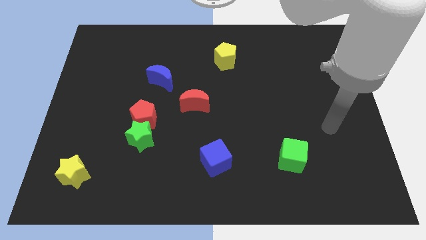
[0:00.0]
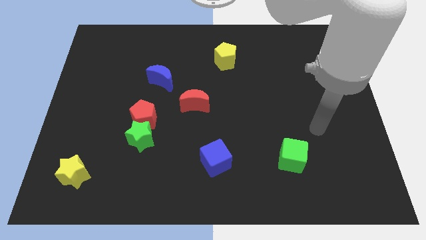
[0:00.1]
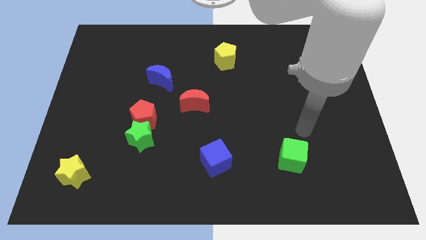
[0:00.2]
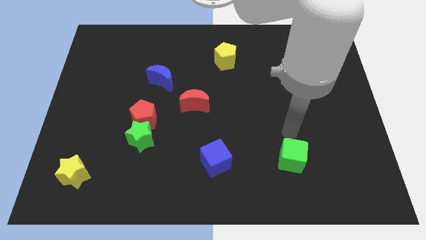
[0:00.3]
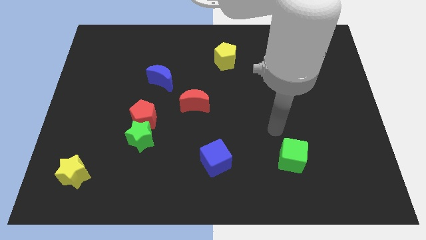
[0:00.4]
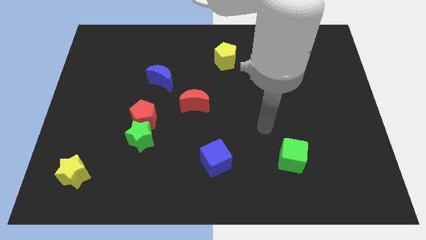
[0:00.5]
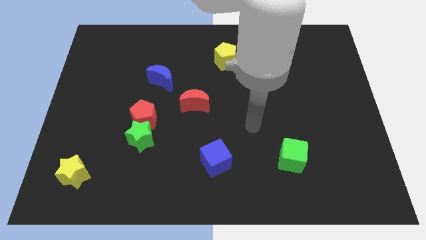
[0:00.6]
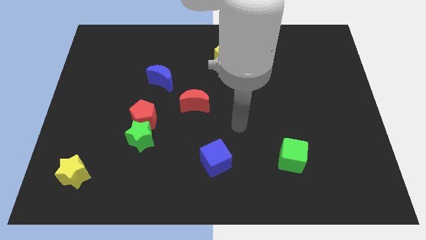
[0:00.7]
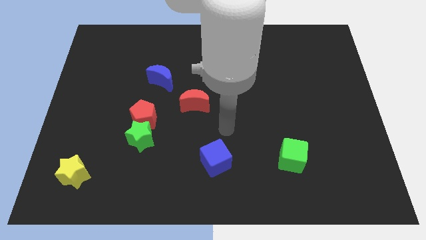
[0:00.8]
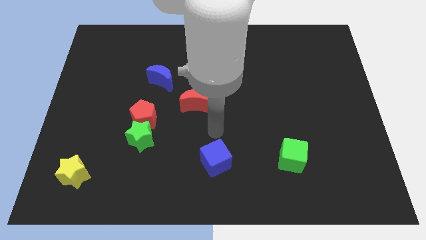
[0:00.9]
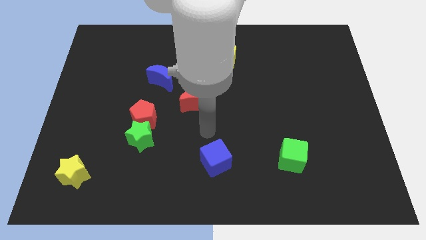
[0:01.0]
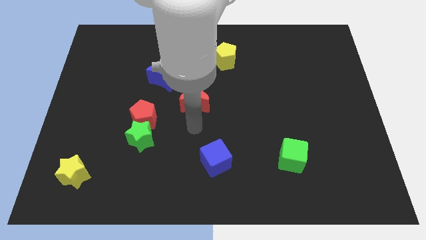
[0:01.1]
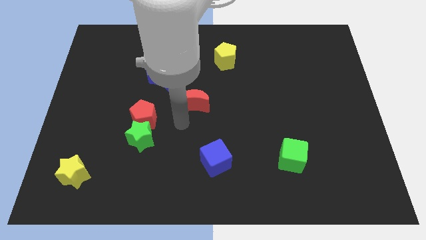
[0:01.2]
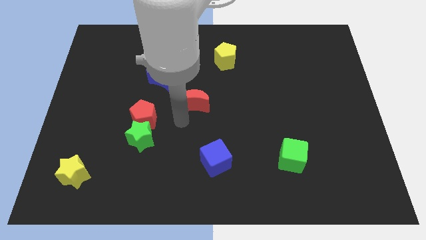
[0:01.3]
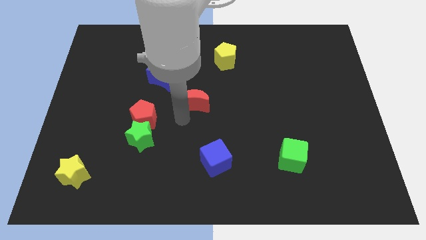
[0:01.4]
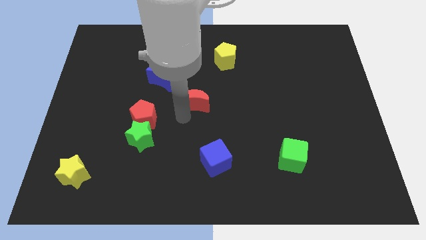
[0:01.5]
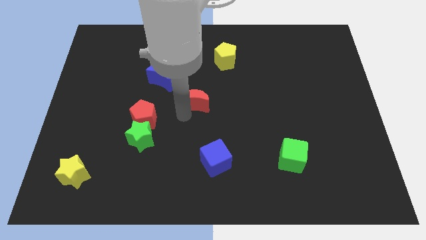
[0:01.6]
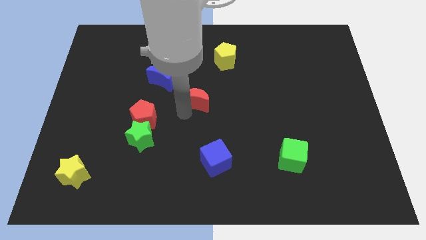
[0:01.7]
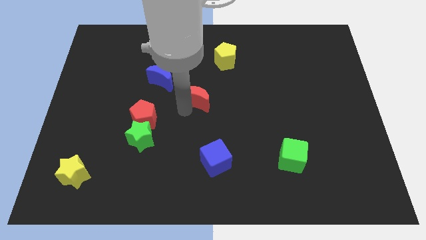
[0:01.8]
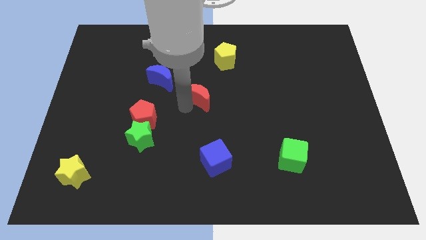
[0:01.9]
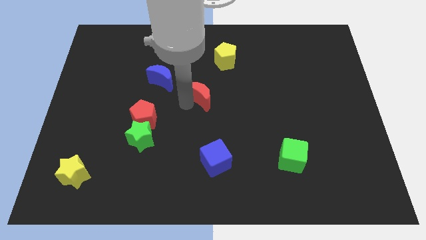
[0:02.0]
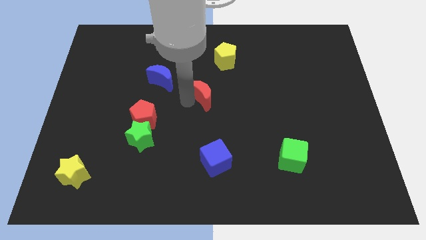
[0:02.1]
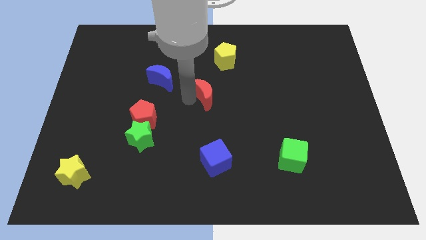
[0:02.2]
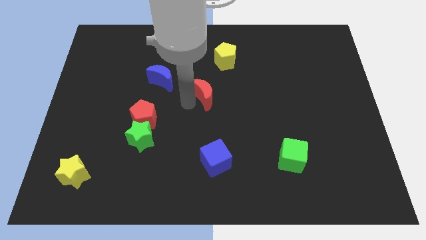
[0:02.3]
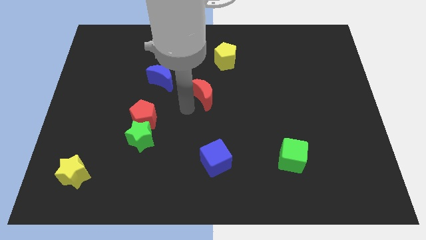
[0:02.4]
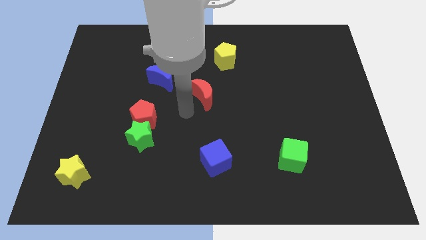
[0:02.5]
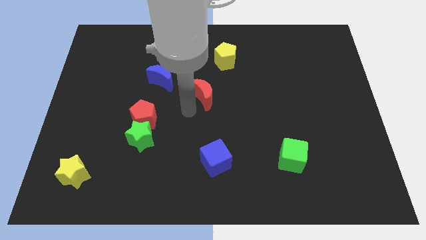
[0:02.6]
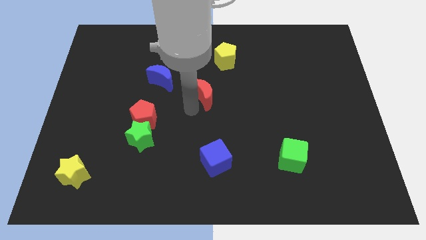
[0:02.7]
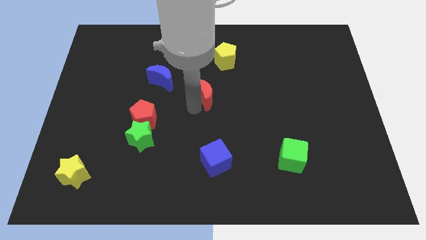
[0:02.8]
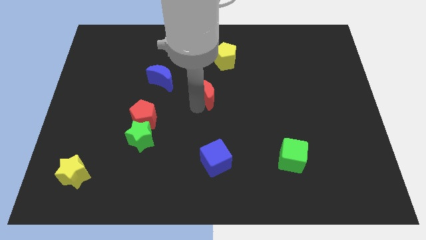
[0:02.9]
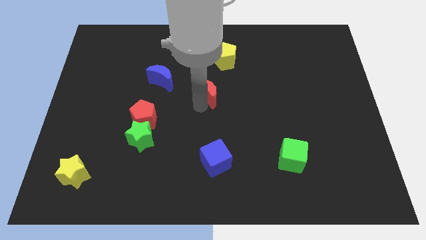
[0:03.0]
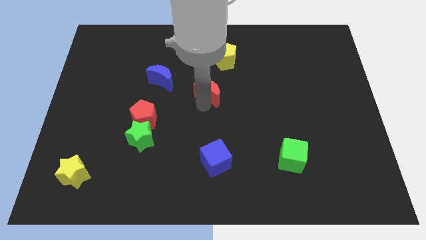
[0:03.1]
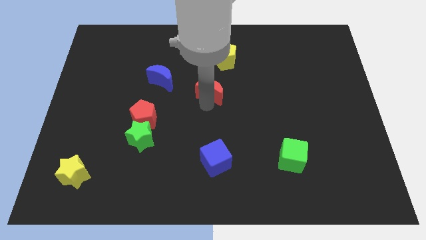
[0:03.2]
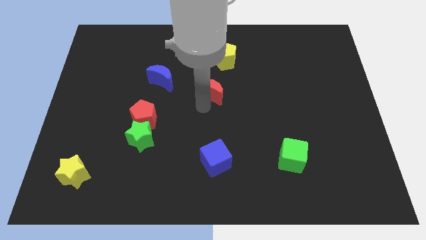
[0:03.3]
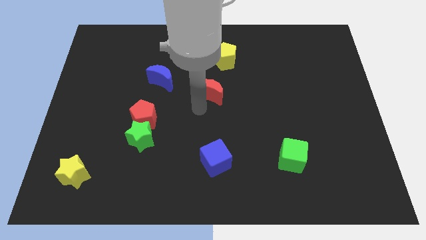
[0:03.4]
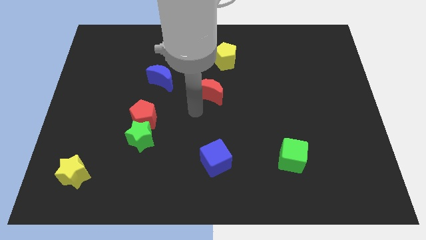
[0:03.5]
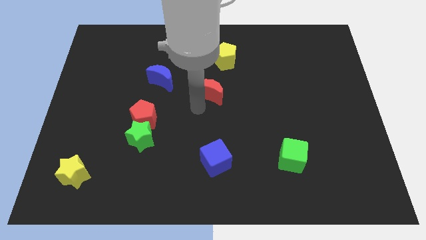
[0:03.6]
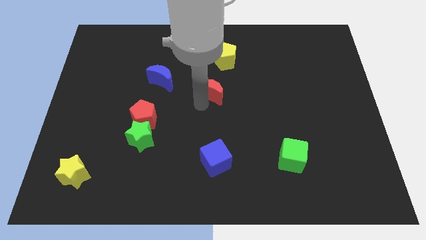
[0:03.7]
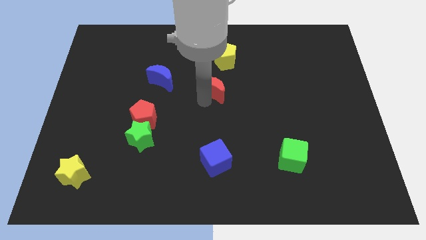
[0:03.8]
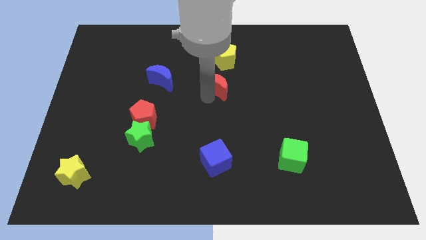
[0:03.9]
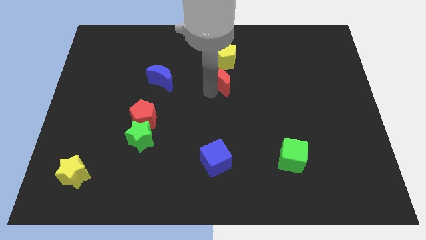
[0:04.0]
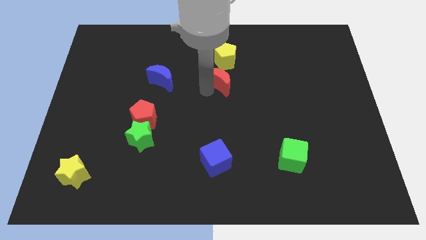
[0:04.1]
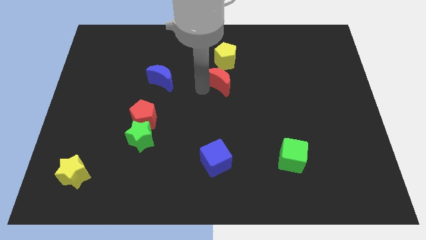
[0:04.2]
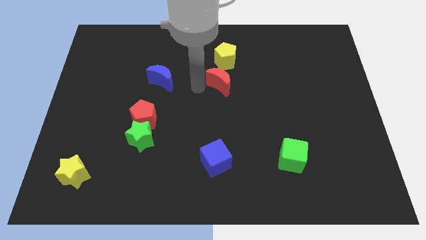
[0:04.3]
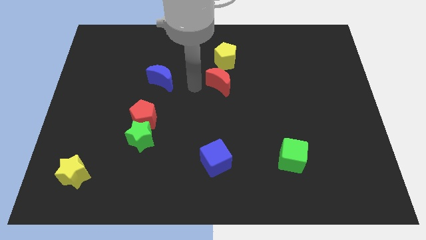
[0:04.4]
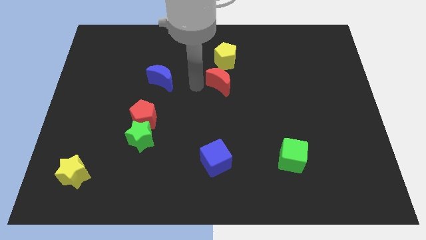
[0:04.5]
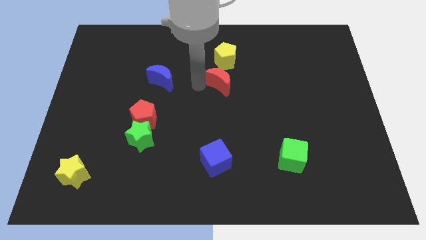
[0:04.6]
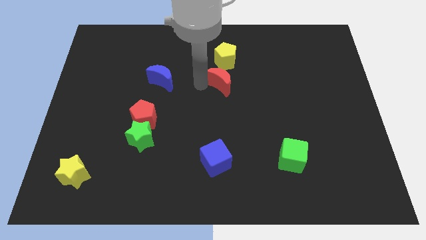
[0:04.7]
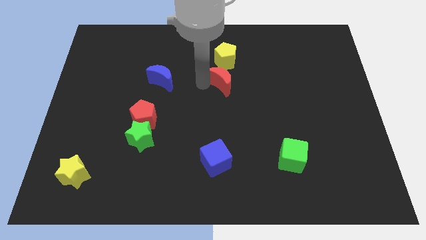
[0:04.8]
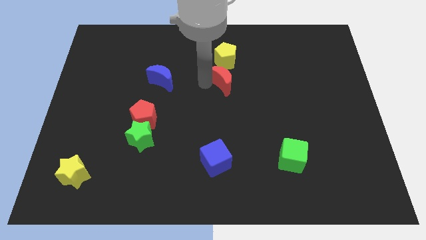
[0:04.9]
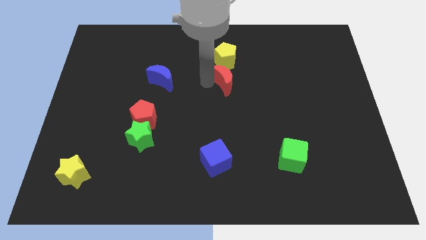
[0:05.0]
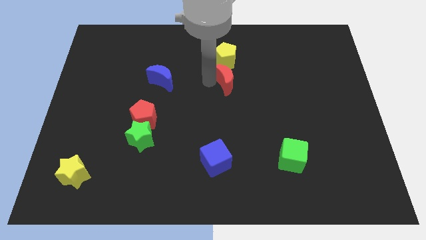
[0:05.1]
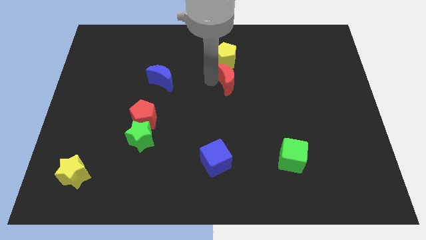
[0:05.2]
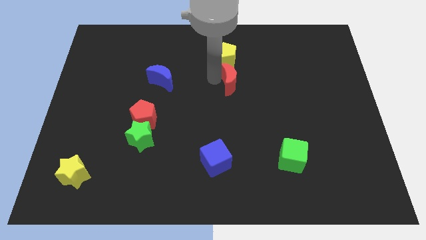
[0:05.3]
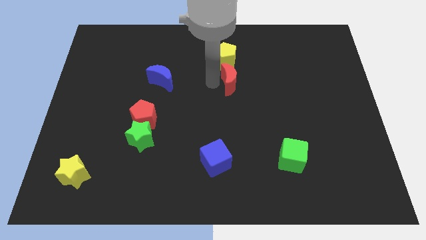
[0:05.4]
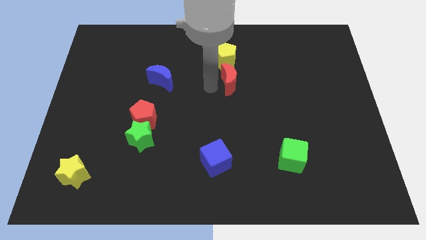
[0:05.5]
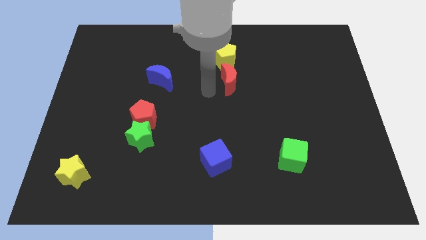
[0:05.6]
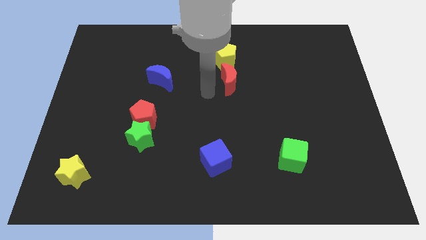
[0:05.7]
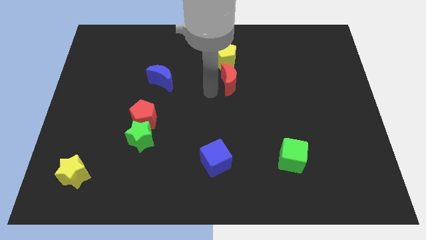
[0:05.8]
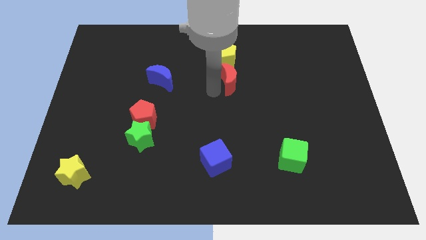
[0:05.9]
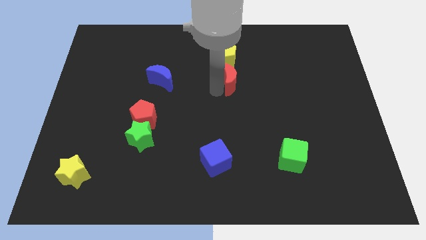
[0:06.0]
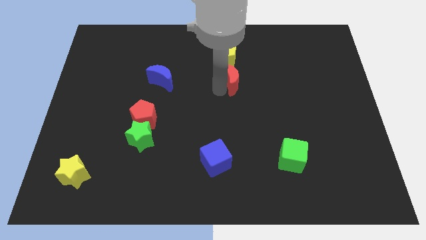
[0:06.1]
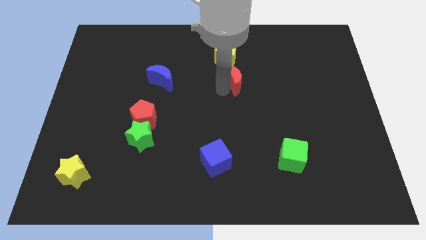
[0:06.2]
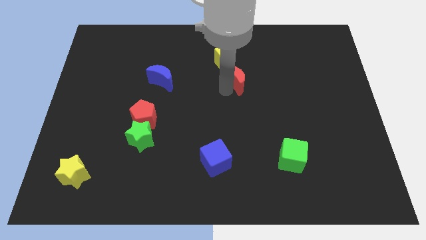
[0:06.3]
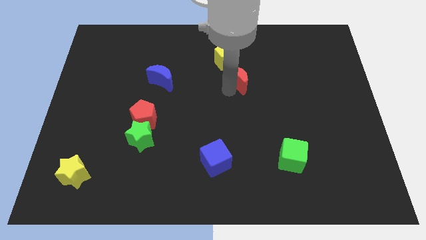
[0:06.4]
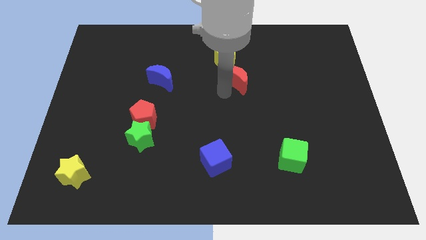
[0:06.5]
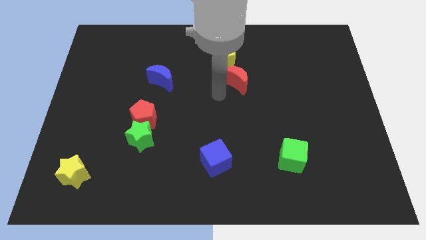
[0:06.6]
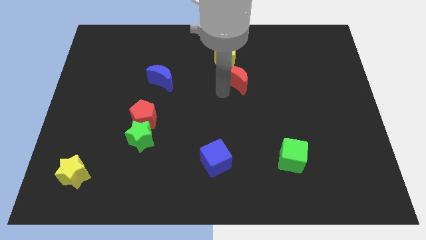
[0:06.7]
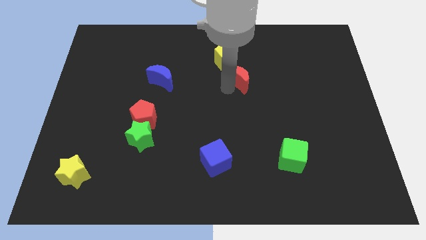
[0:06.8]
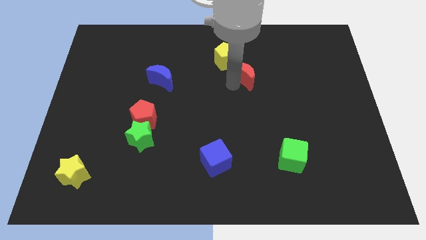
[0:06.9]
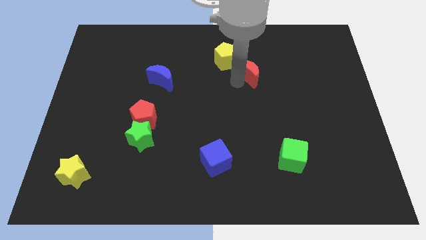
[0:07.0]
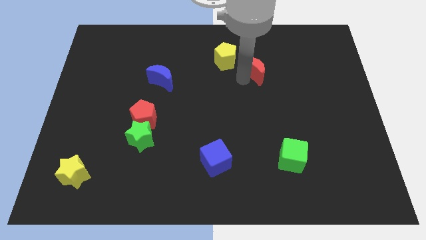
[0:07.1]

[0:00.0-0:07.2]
push the red moon to the right side of the yellow pentagon
